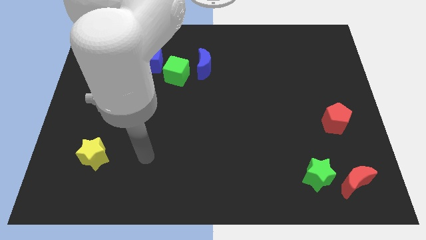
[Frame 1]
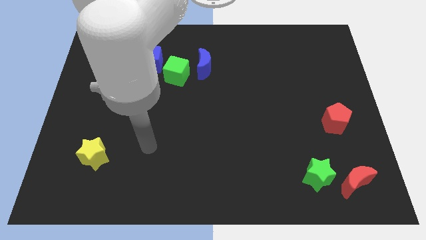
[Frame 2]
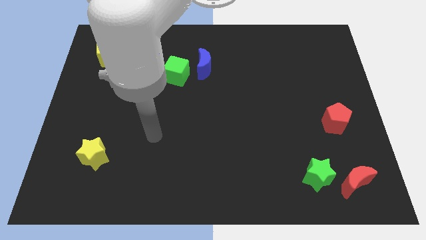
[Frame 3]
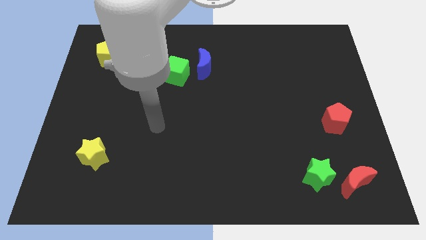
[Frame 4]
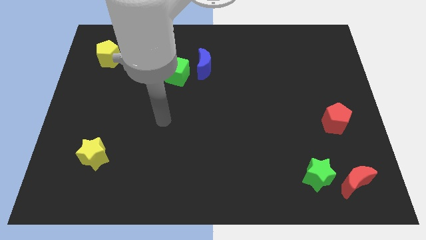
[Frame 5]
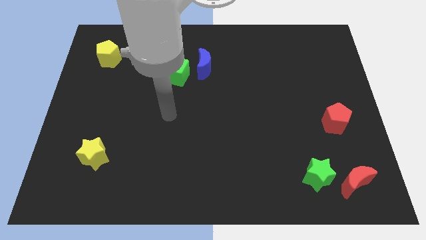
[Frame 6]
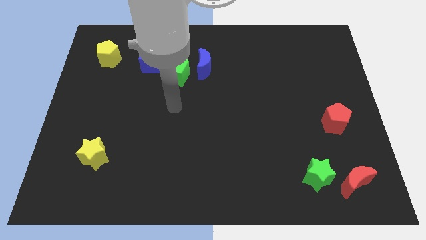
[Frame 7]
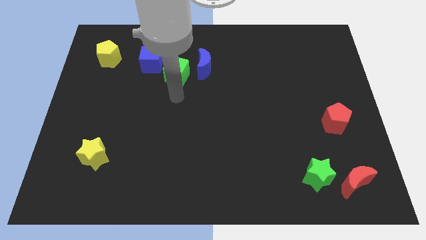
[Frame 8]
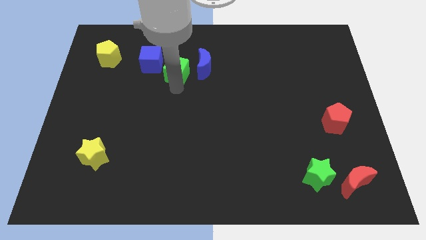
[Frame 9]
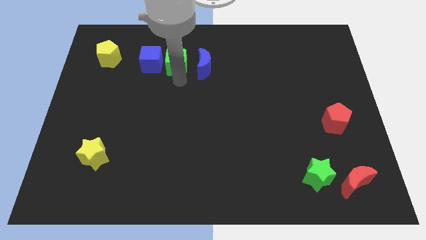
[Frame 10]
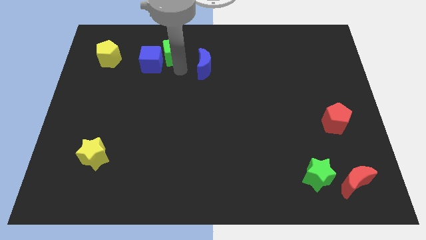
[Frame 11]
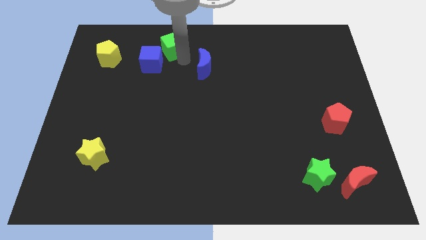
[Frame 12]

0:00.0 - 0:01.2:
separate the blue moon from the green cube

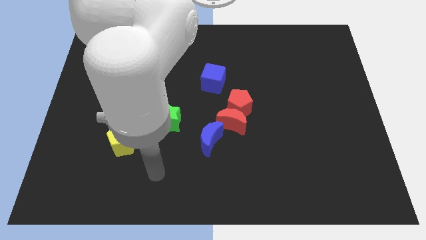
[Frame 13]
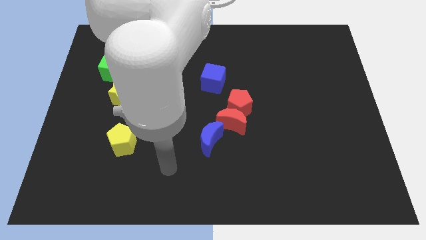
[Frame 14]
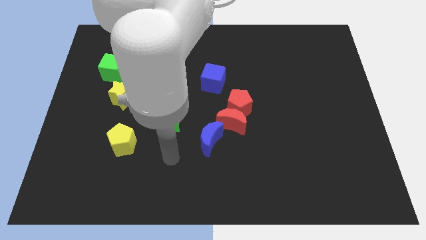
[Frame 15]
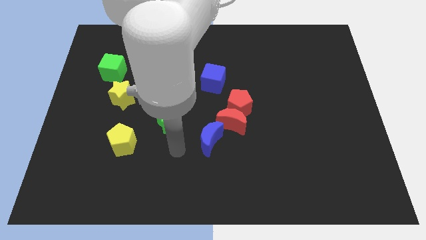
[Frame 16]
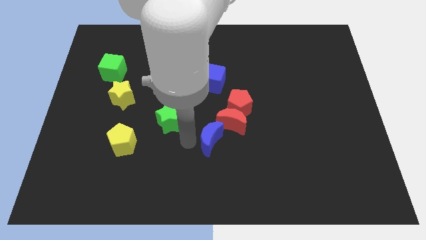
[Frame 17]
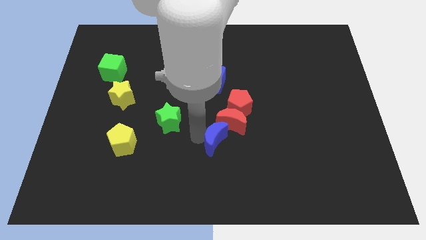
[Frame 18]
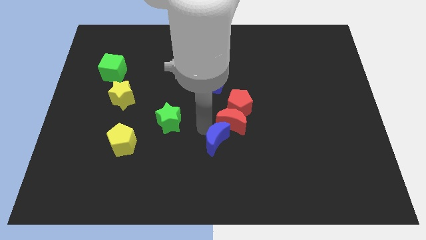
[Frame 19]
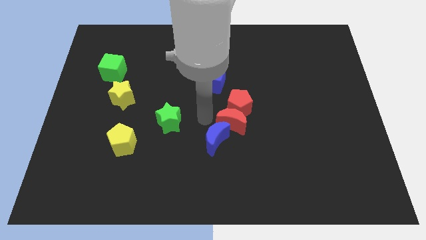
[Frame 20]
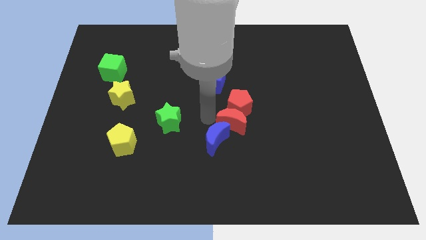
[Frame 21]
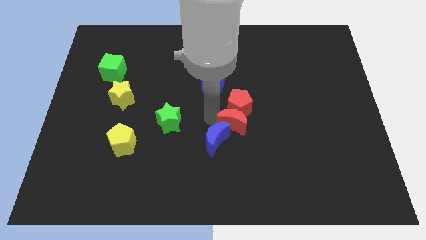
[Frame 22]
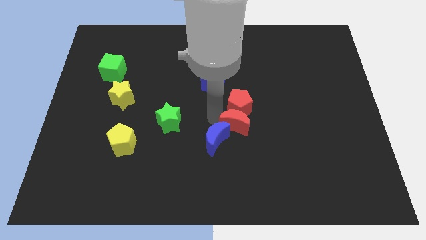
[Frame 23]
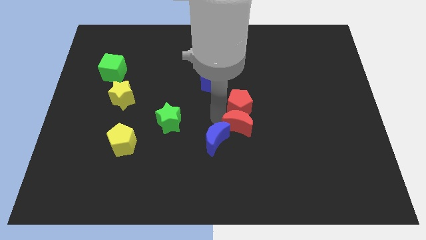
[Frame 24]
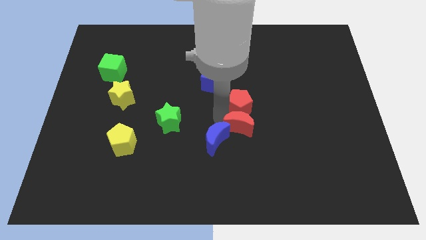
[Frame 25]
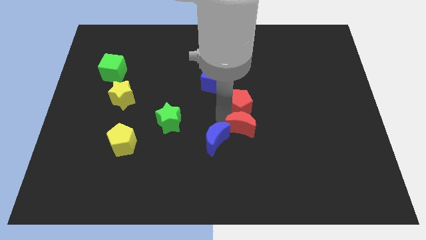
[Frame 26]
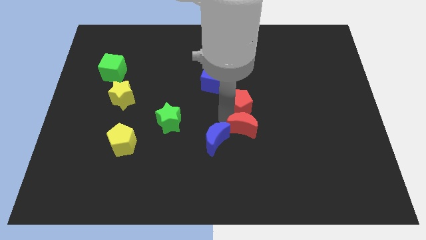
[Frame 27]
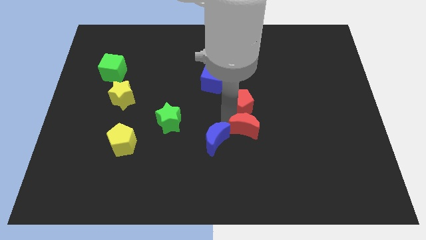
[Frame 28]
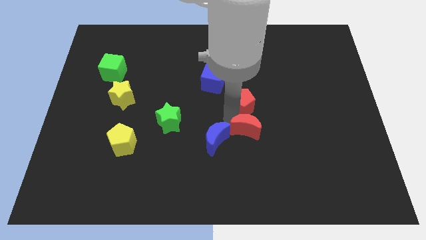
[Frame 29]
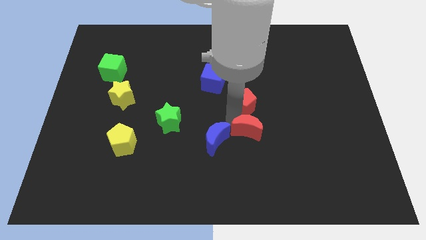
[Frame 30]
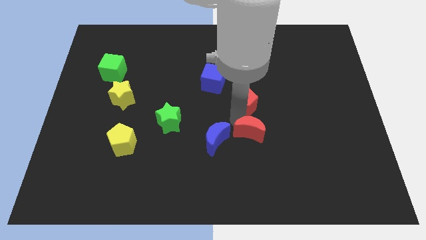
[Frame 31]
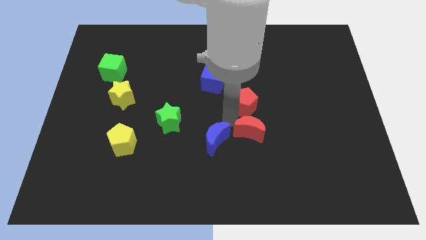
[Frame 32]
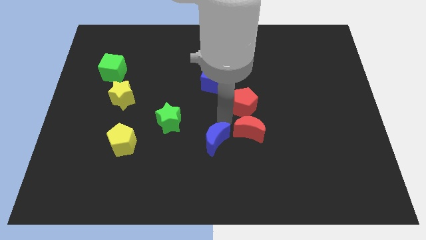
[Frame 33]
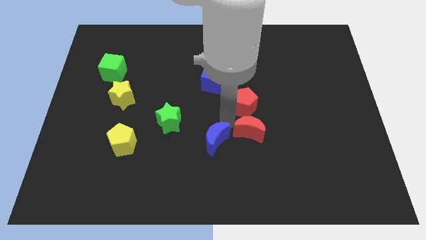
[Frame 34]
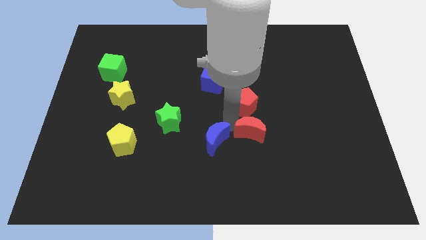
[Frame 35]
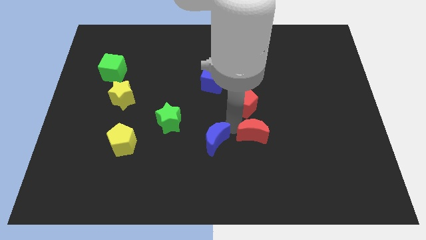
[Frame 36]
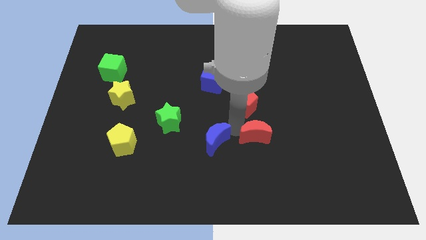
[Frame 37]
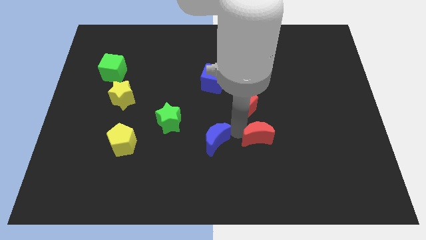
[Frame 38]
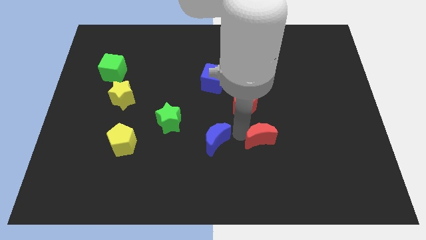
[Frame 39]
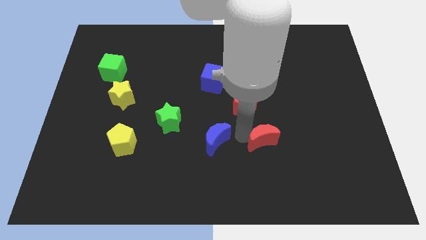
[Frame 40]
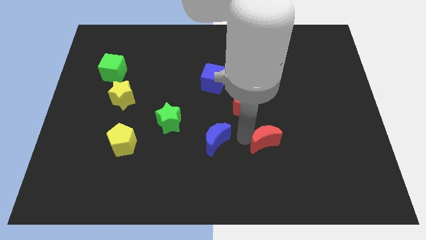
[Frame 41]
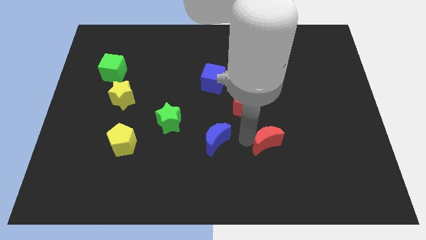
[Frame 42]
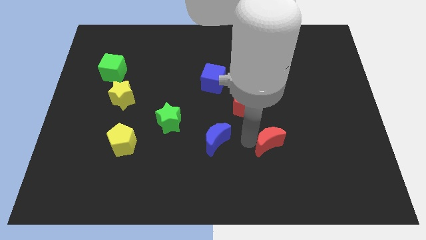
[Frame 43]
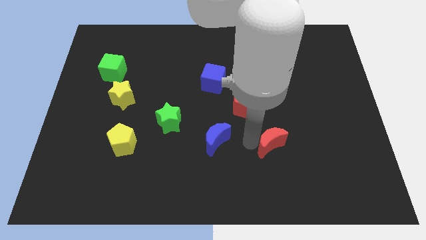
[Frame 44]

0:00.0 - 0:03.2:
separate the red moon from the red pentagon and blue moon

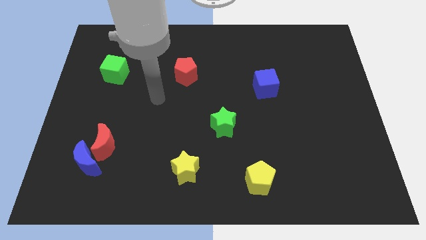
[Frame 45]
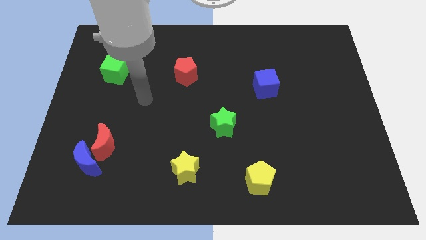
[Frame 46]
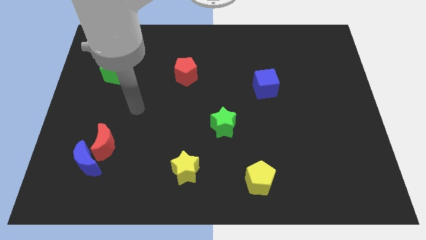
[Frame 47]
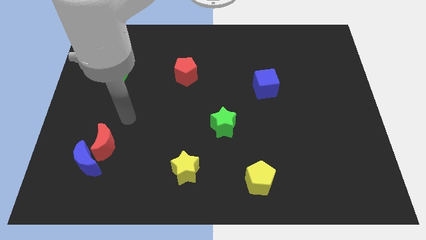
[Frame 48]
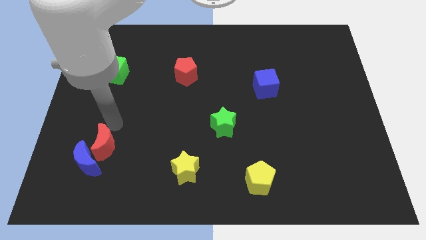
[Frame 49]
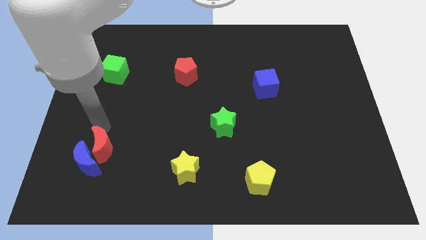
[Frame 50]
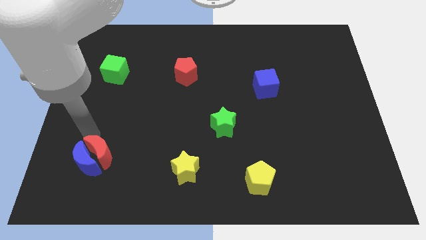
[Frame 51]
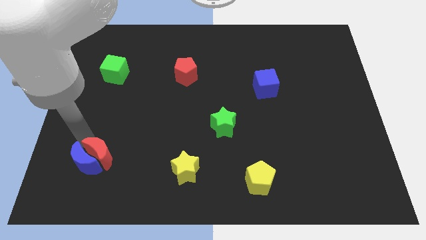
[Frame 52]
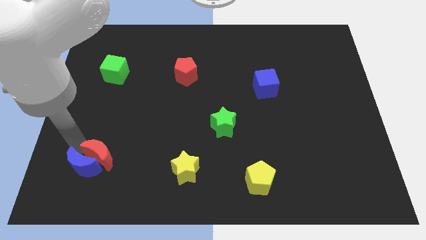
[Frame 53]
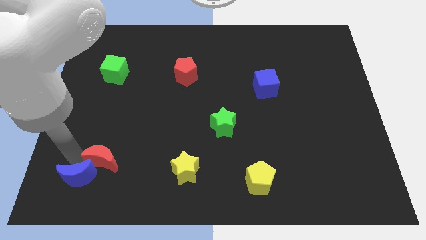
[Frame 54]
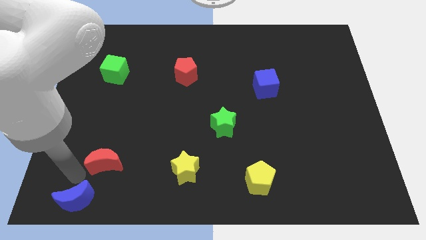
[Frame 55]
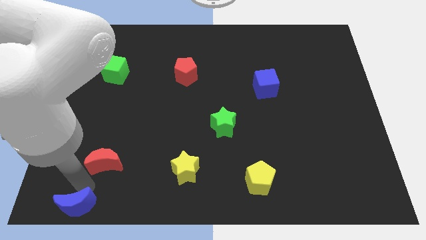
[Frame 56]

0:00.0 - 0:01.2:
move the red moon away from the blue moon

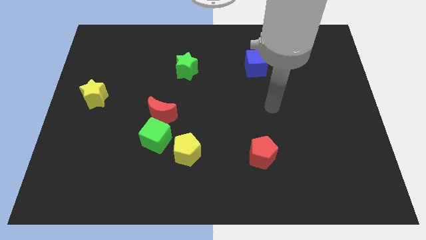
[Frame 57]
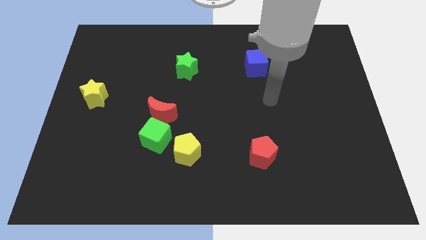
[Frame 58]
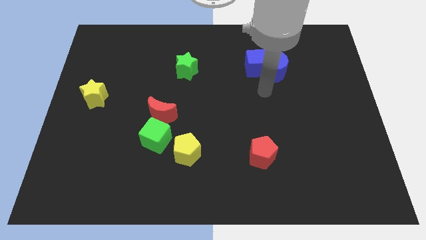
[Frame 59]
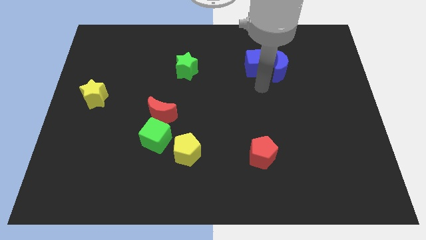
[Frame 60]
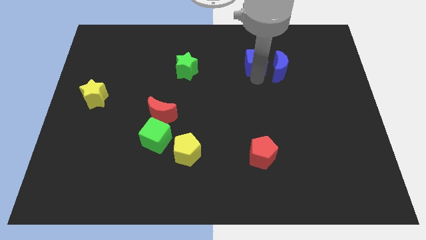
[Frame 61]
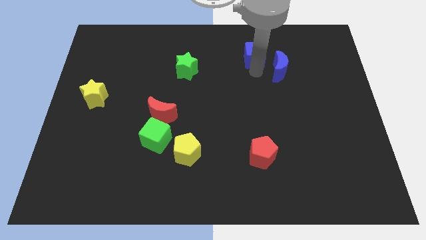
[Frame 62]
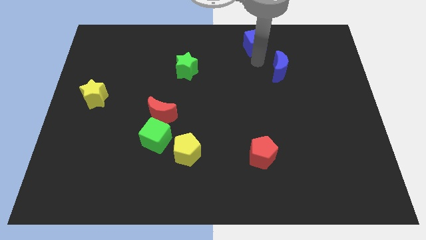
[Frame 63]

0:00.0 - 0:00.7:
move the blue moon away from the blue cube

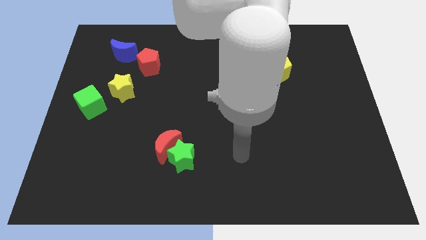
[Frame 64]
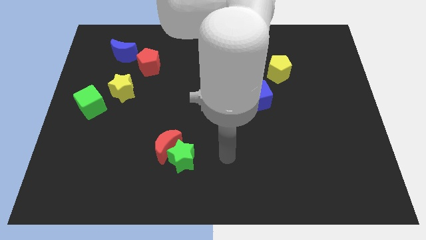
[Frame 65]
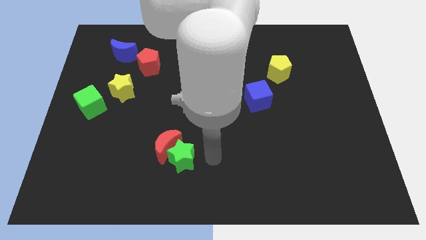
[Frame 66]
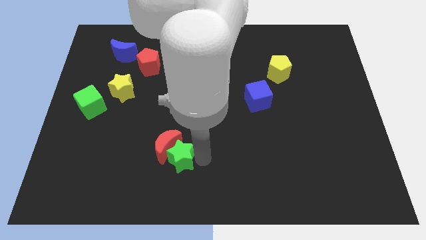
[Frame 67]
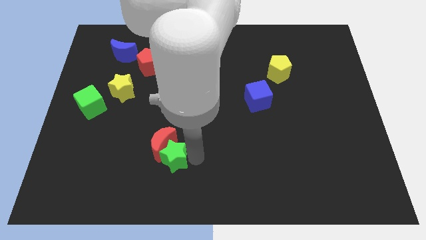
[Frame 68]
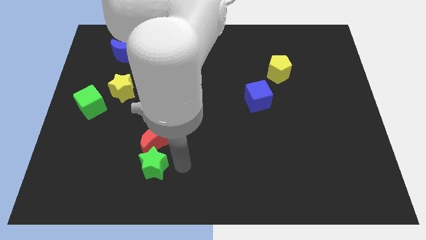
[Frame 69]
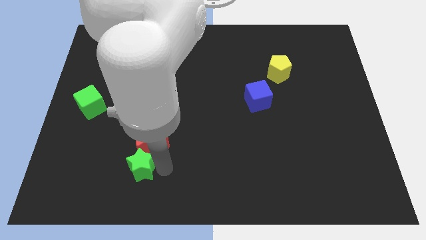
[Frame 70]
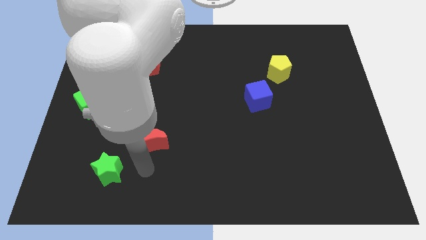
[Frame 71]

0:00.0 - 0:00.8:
separate the red moon from the green star

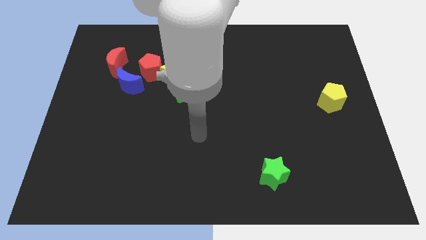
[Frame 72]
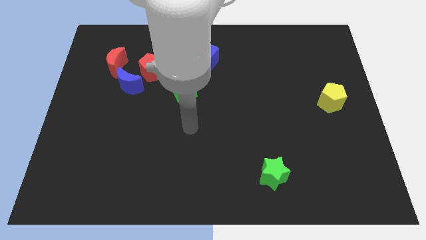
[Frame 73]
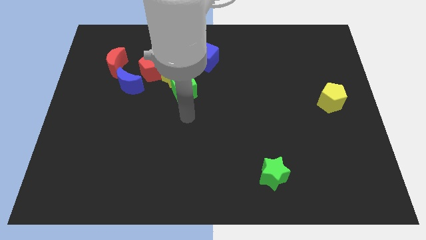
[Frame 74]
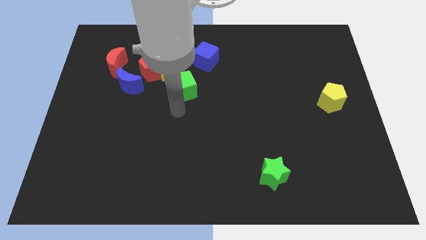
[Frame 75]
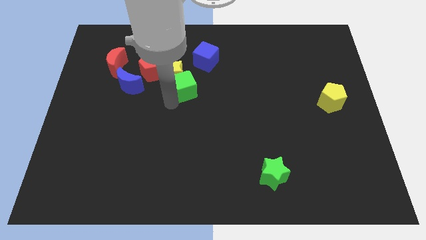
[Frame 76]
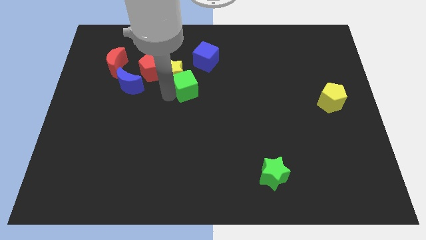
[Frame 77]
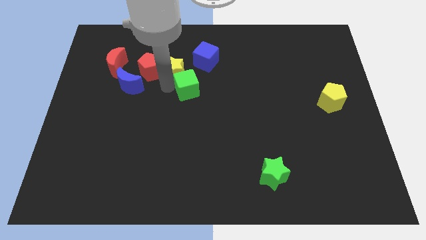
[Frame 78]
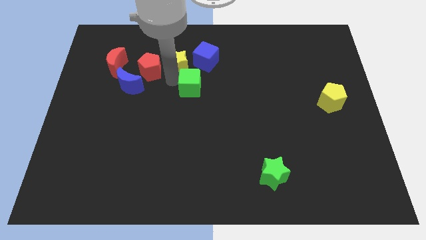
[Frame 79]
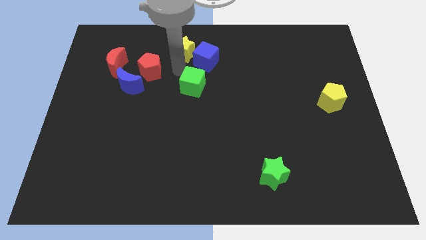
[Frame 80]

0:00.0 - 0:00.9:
move the green cube away from the yellow star

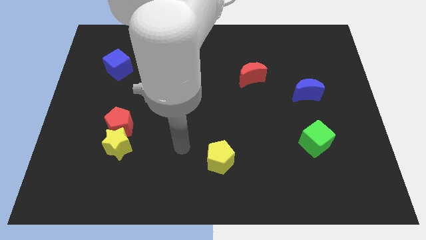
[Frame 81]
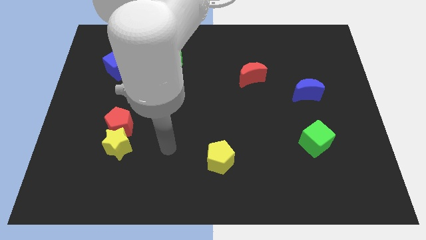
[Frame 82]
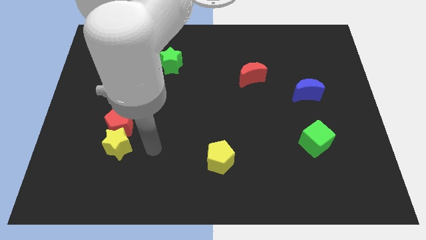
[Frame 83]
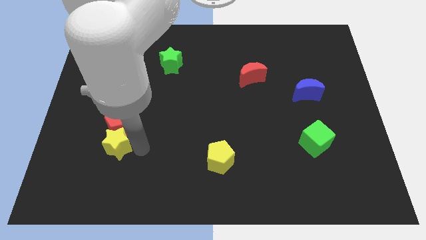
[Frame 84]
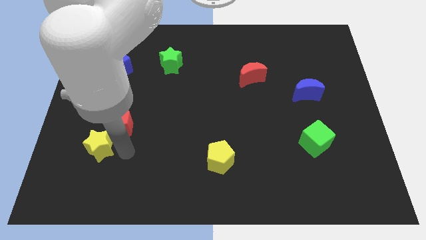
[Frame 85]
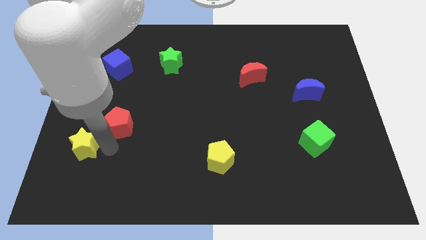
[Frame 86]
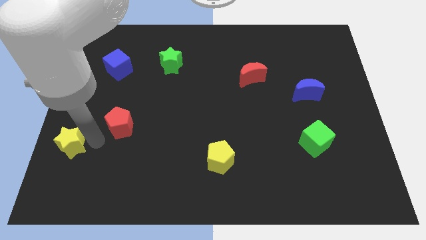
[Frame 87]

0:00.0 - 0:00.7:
separate the red pentagon from the yellow star

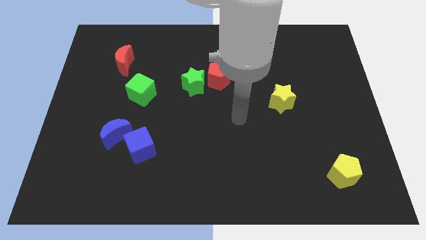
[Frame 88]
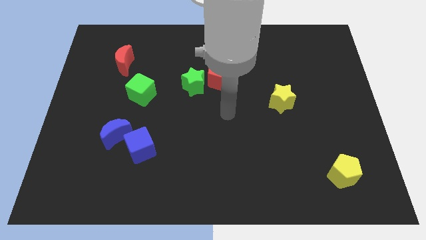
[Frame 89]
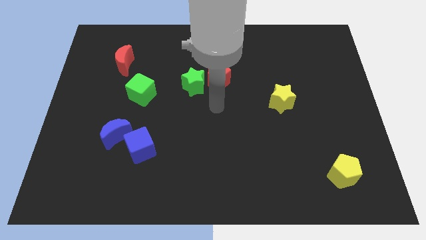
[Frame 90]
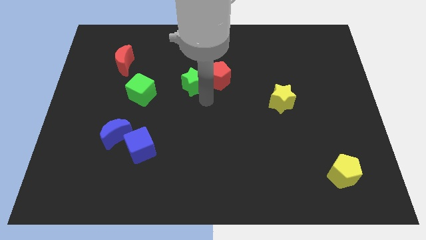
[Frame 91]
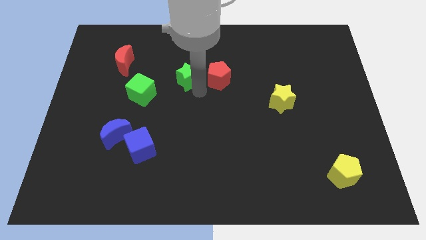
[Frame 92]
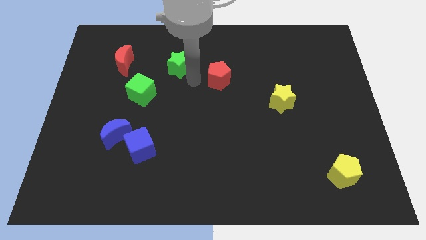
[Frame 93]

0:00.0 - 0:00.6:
pull the red pentagon apart from the green star

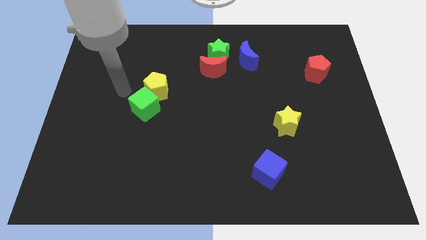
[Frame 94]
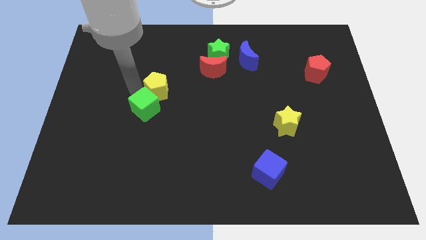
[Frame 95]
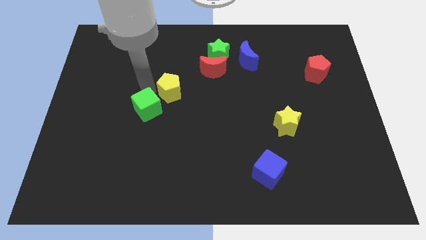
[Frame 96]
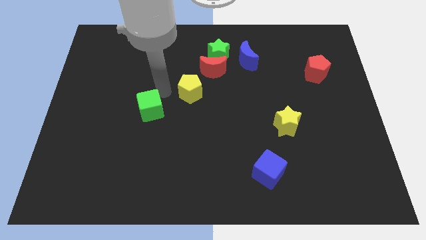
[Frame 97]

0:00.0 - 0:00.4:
separate the green cube from the yellow pentagon
